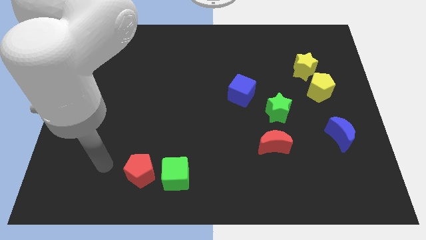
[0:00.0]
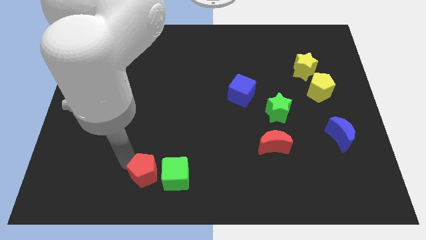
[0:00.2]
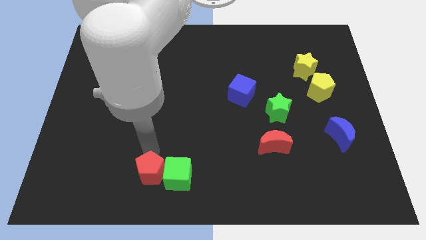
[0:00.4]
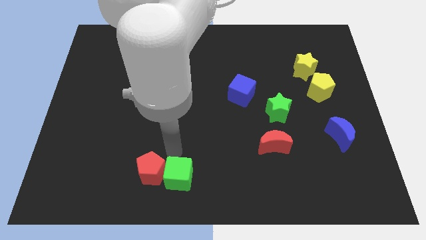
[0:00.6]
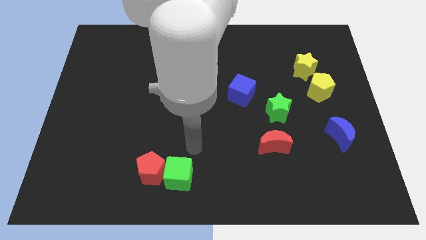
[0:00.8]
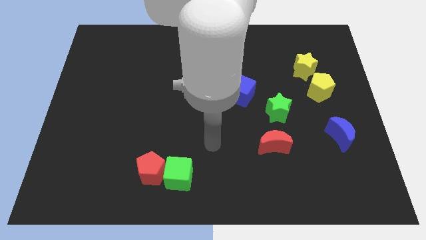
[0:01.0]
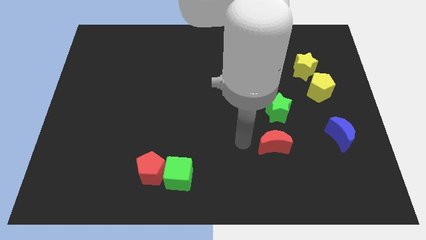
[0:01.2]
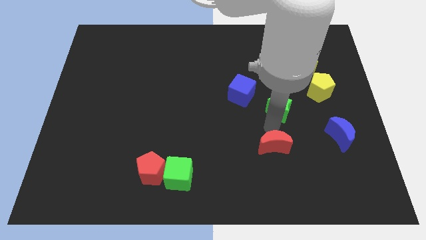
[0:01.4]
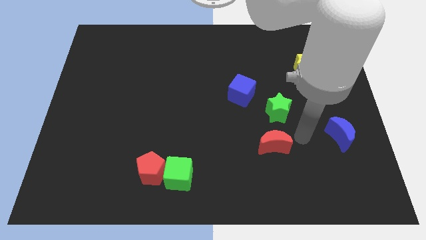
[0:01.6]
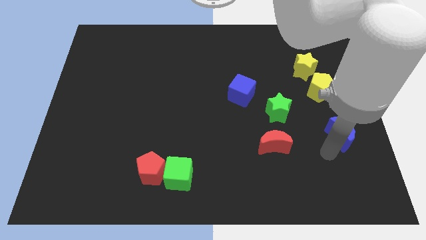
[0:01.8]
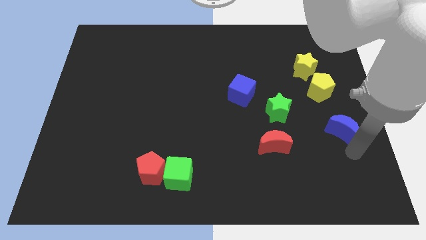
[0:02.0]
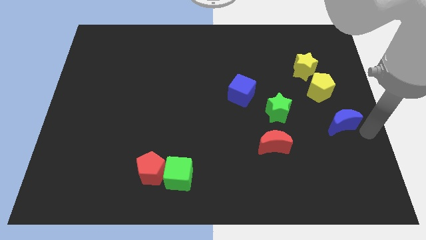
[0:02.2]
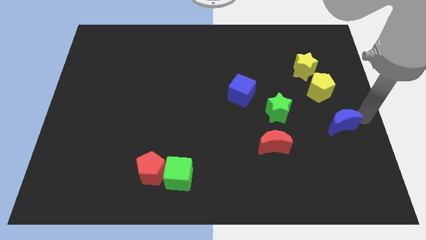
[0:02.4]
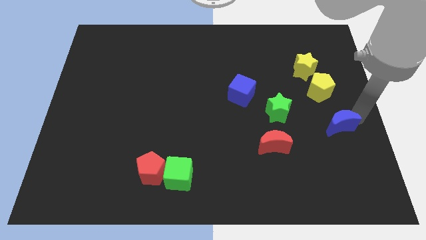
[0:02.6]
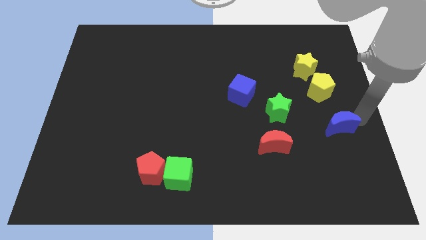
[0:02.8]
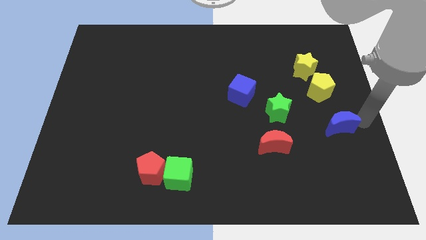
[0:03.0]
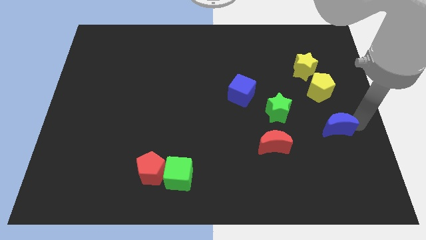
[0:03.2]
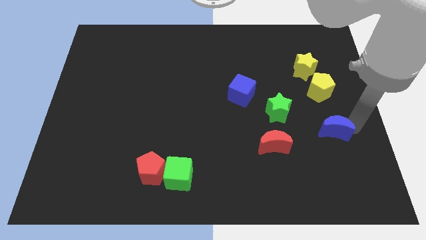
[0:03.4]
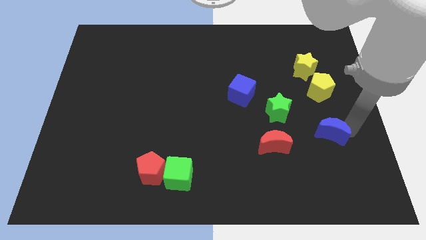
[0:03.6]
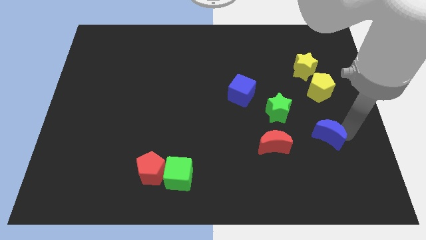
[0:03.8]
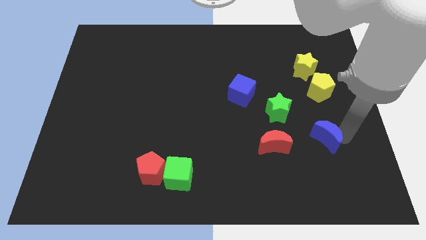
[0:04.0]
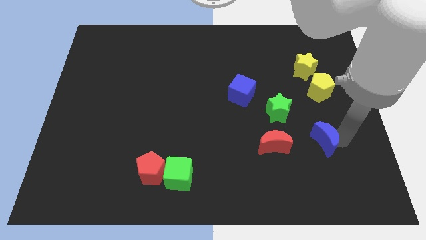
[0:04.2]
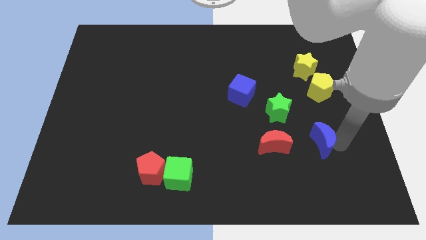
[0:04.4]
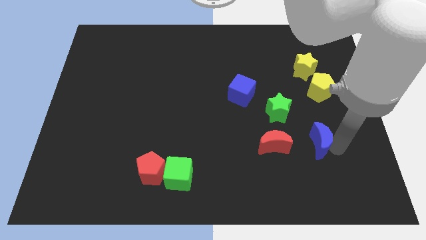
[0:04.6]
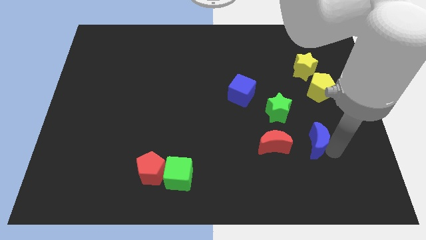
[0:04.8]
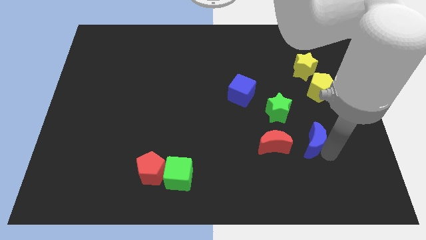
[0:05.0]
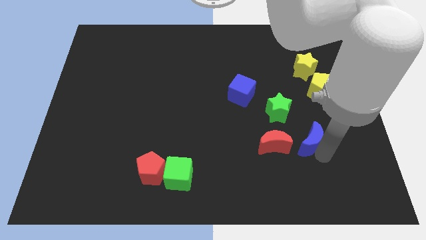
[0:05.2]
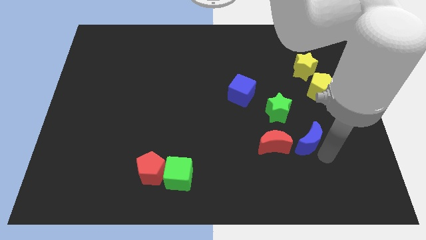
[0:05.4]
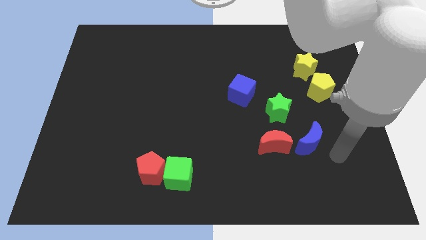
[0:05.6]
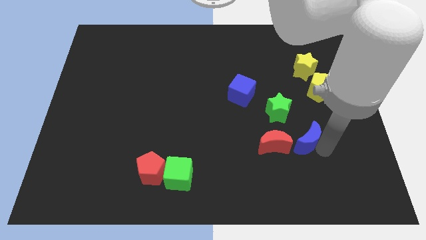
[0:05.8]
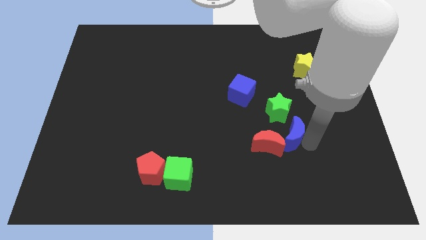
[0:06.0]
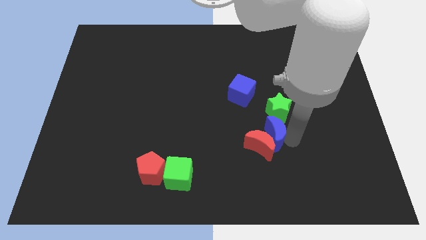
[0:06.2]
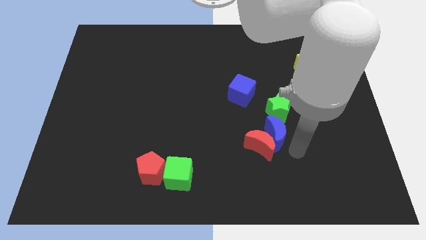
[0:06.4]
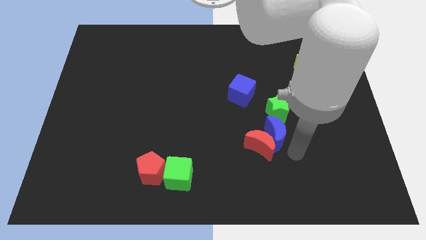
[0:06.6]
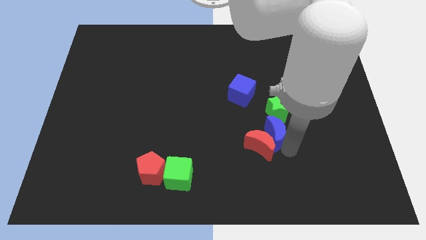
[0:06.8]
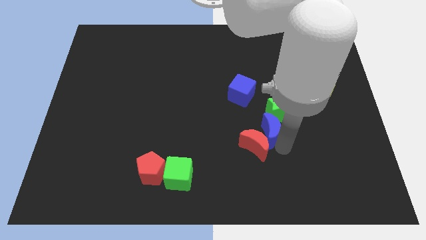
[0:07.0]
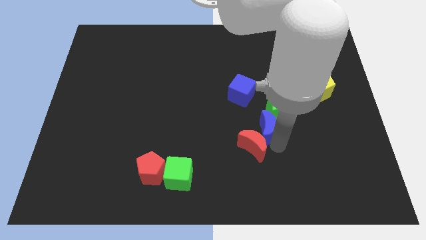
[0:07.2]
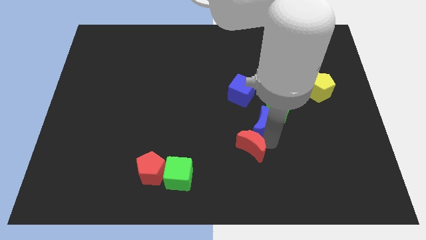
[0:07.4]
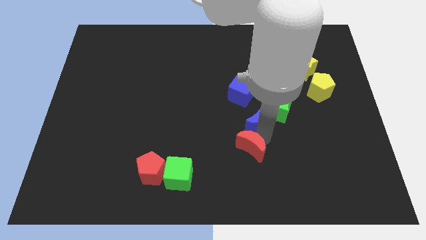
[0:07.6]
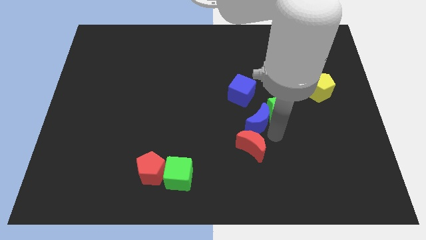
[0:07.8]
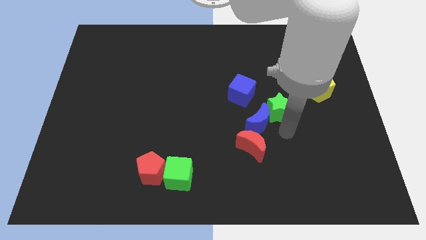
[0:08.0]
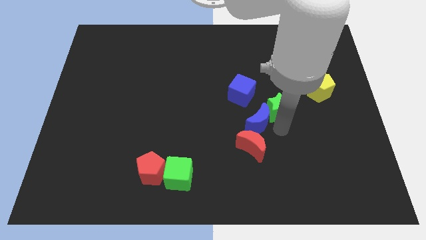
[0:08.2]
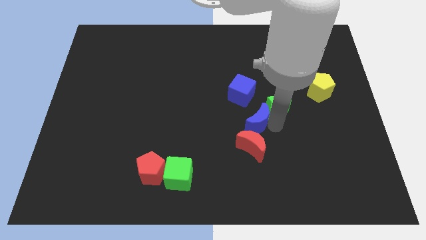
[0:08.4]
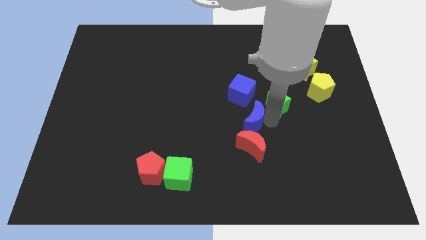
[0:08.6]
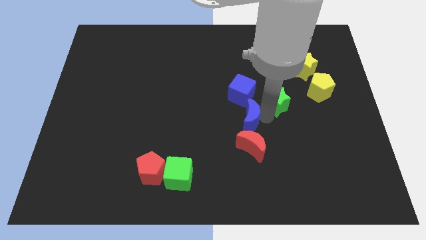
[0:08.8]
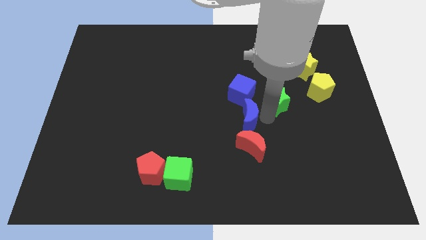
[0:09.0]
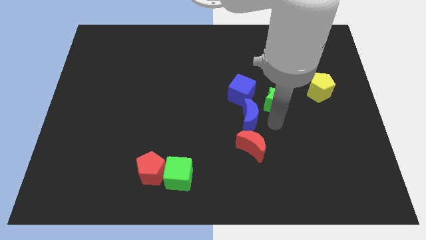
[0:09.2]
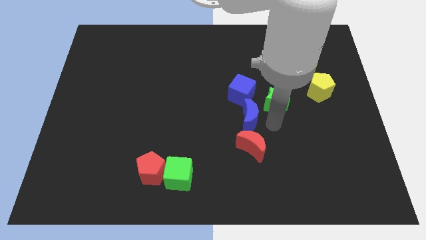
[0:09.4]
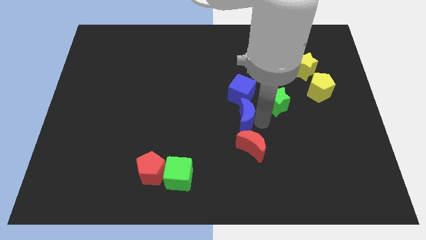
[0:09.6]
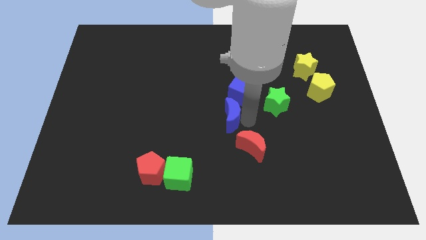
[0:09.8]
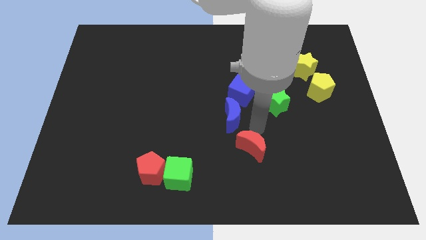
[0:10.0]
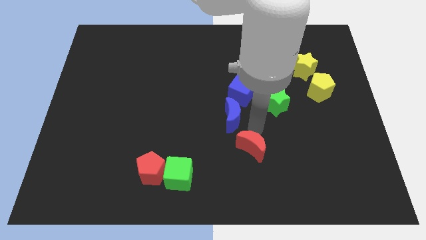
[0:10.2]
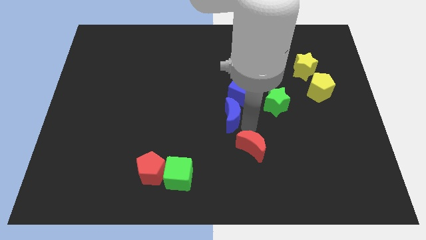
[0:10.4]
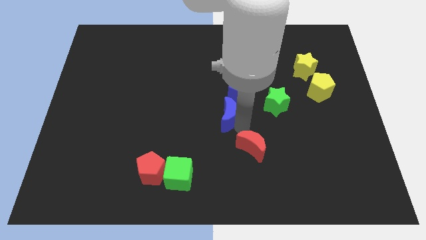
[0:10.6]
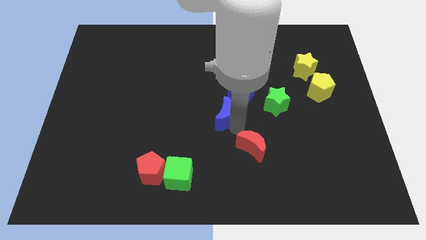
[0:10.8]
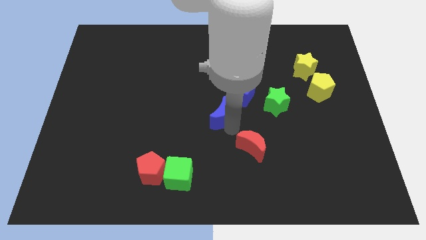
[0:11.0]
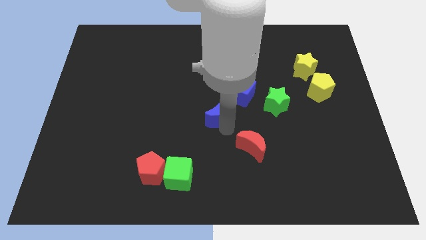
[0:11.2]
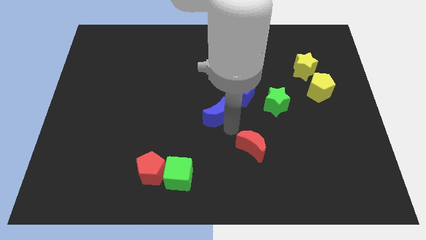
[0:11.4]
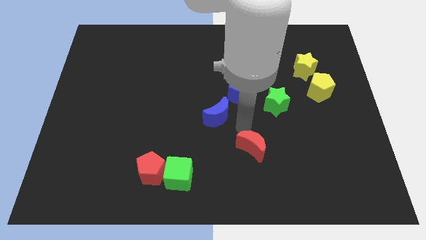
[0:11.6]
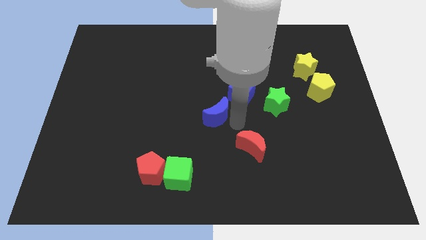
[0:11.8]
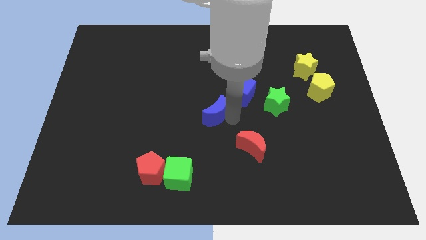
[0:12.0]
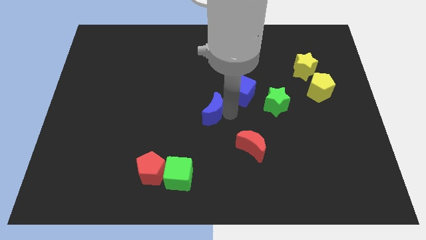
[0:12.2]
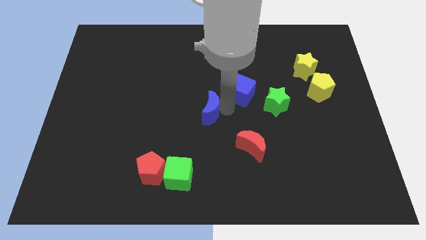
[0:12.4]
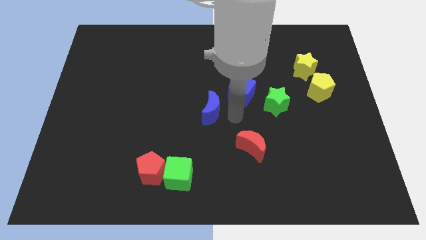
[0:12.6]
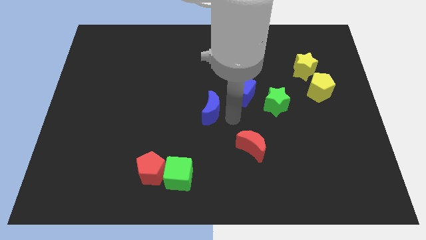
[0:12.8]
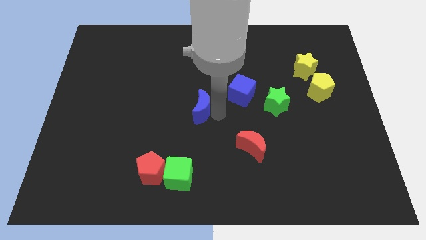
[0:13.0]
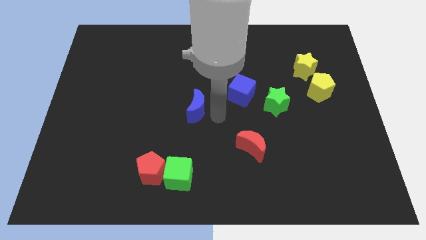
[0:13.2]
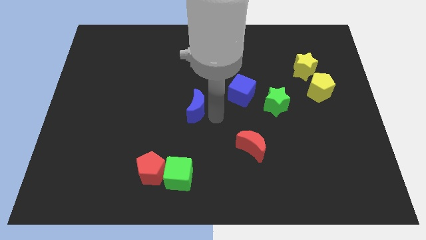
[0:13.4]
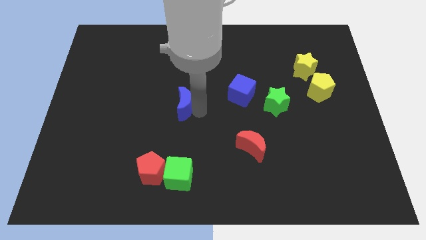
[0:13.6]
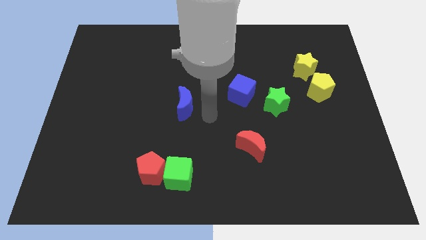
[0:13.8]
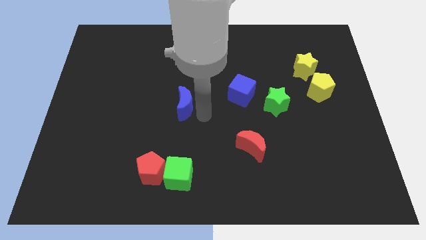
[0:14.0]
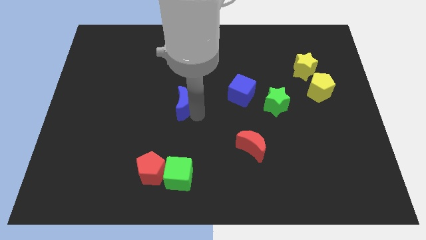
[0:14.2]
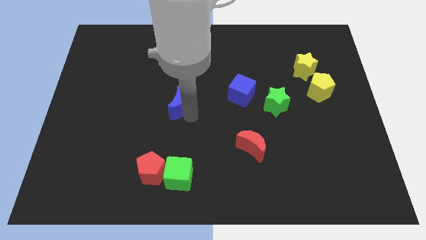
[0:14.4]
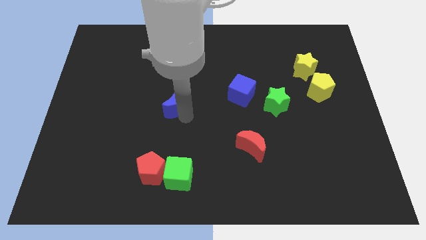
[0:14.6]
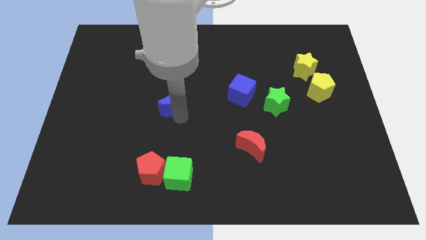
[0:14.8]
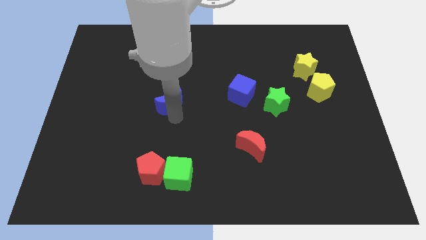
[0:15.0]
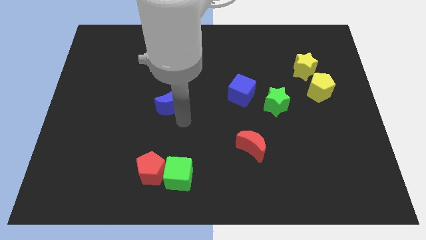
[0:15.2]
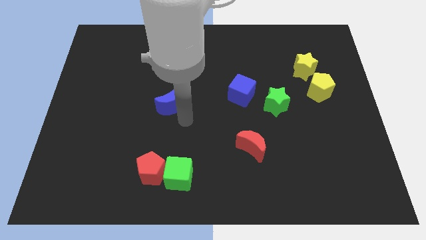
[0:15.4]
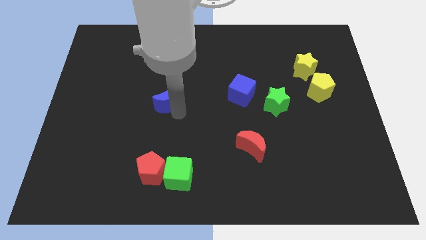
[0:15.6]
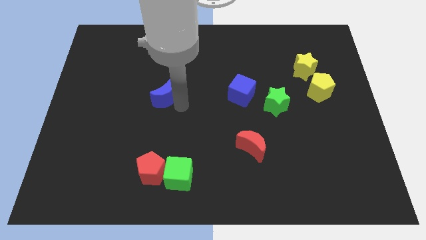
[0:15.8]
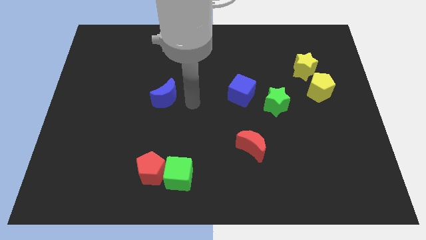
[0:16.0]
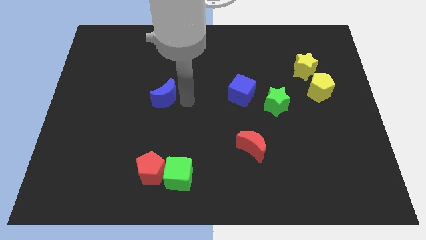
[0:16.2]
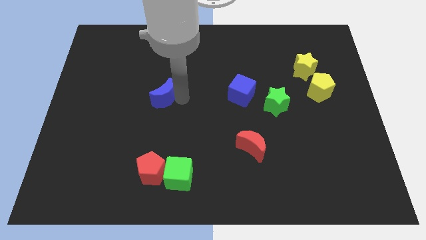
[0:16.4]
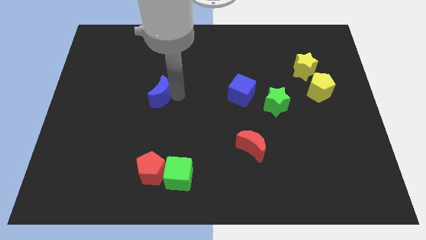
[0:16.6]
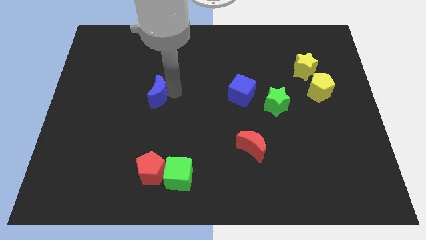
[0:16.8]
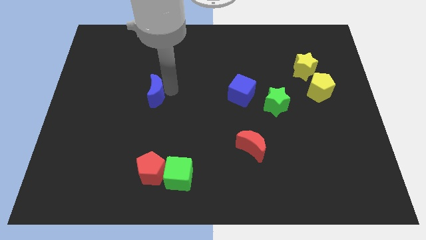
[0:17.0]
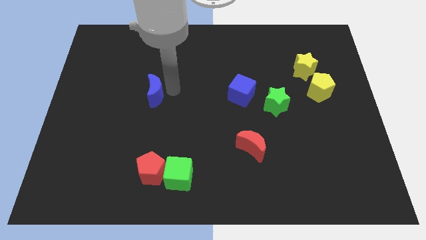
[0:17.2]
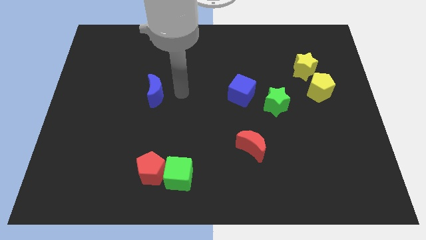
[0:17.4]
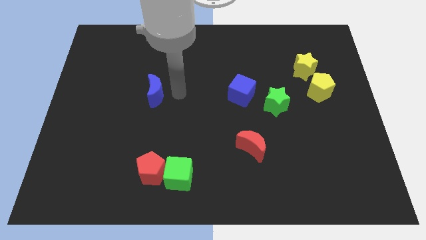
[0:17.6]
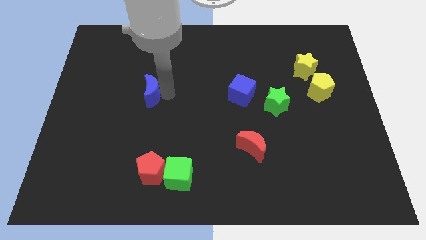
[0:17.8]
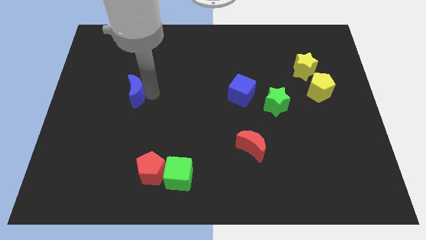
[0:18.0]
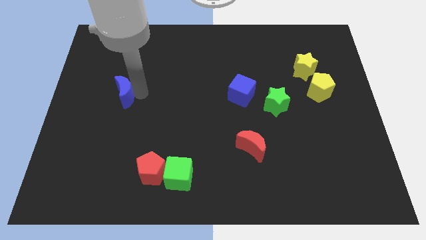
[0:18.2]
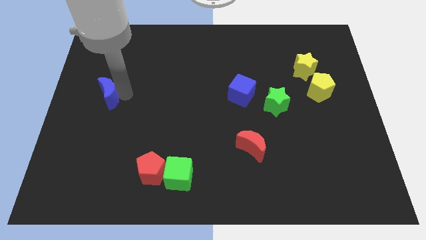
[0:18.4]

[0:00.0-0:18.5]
slide the blue moon to the center left
